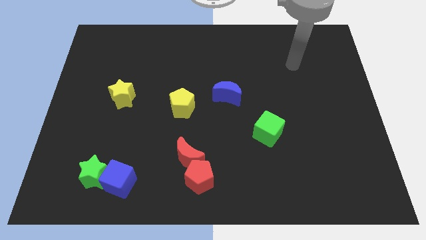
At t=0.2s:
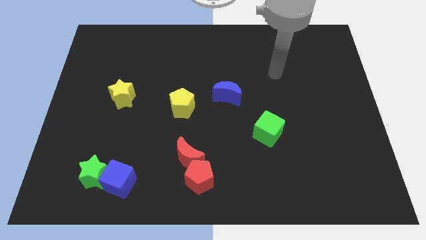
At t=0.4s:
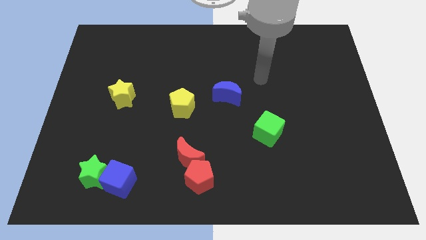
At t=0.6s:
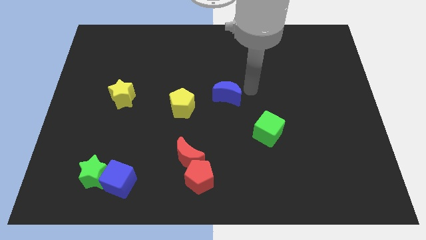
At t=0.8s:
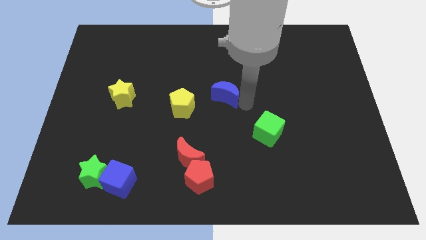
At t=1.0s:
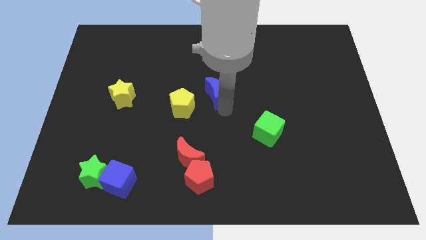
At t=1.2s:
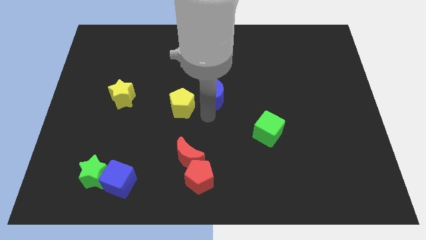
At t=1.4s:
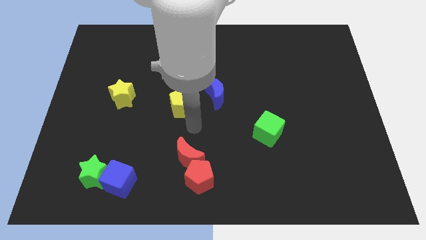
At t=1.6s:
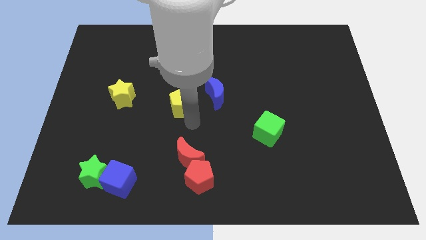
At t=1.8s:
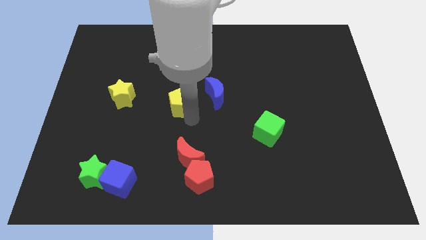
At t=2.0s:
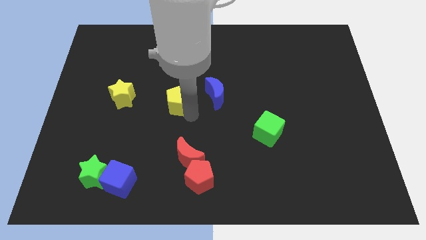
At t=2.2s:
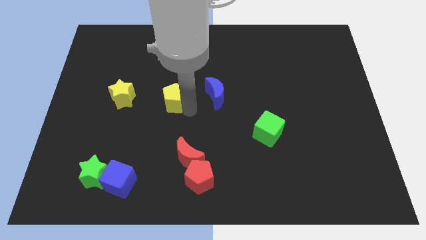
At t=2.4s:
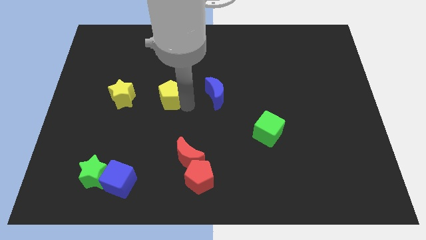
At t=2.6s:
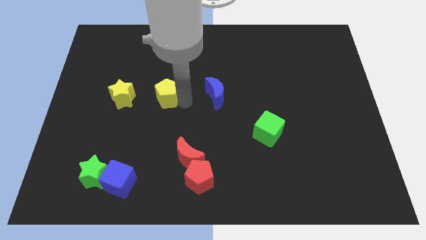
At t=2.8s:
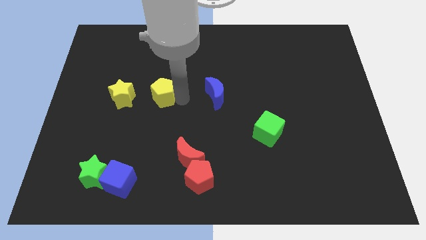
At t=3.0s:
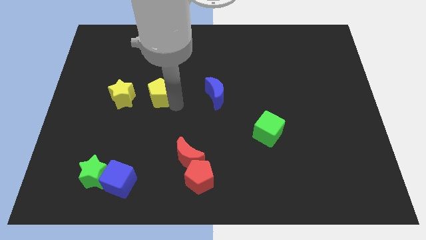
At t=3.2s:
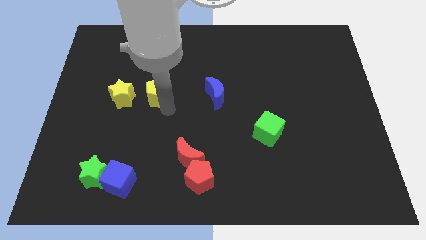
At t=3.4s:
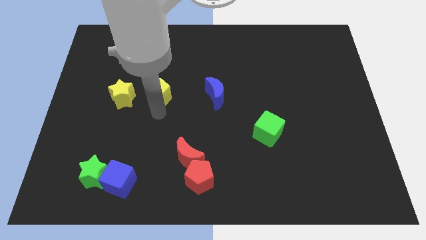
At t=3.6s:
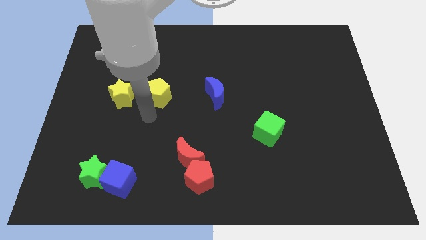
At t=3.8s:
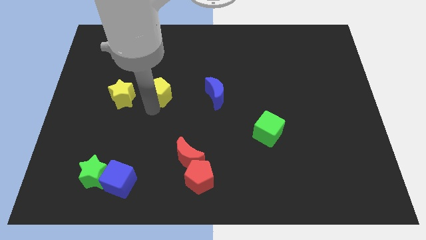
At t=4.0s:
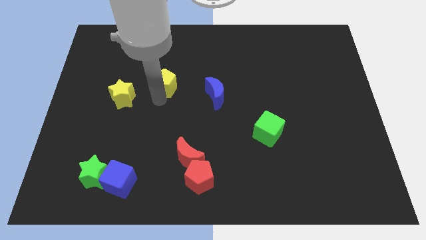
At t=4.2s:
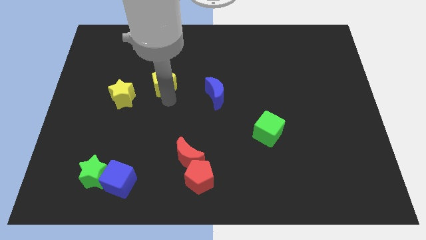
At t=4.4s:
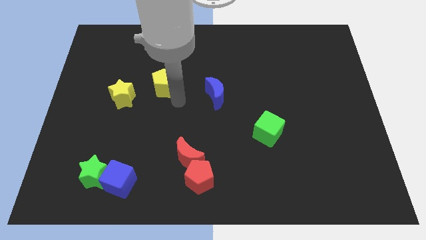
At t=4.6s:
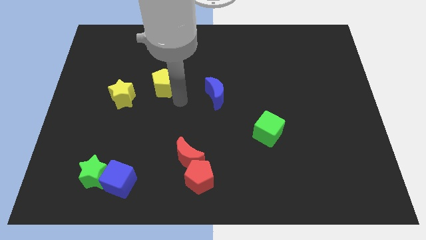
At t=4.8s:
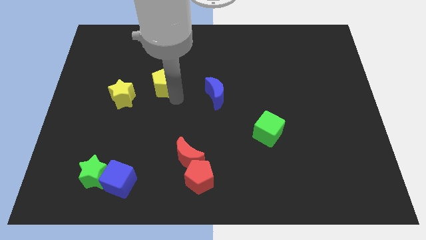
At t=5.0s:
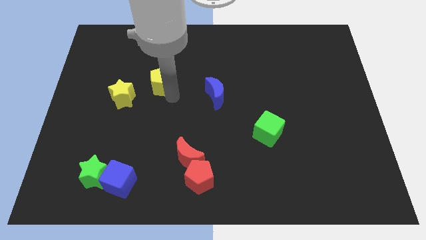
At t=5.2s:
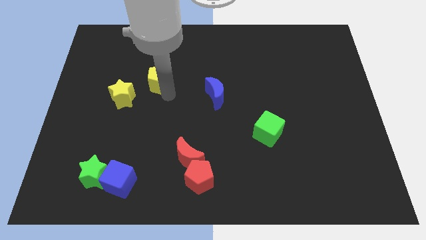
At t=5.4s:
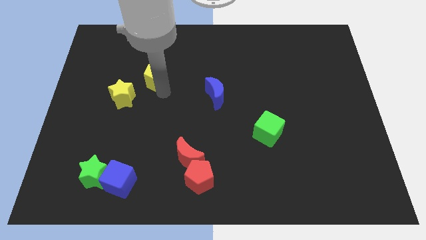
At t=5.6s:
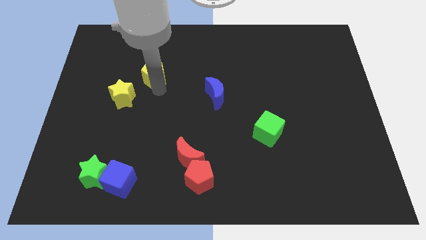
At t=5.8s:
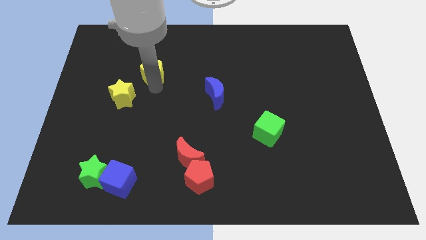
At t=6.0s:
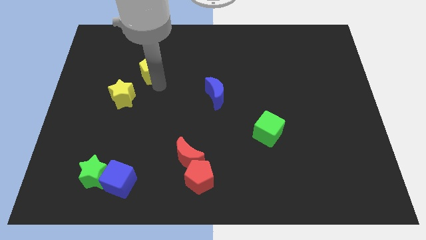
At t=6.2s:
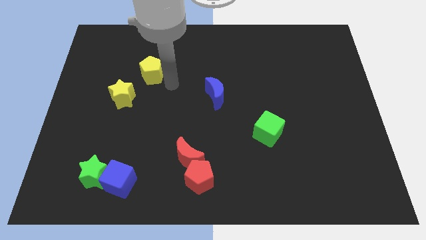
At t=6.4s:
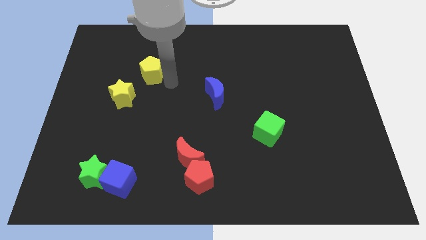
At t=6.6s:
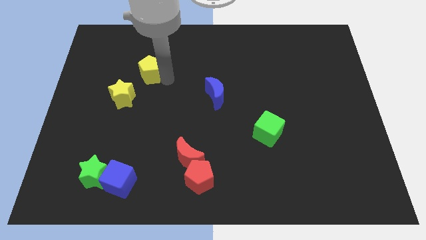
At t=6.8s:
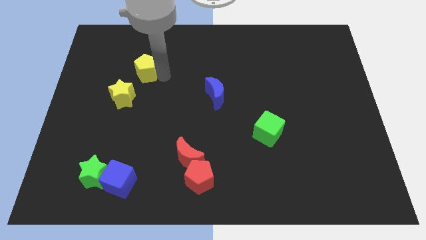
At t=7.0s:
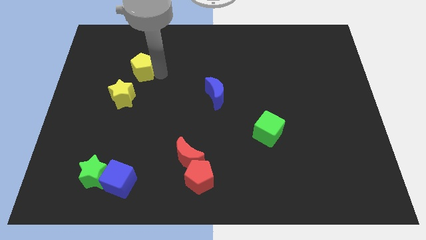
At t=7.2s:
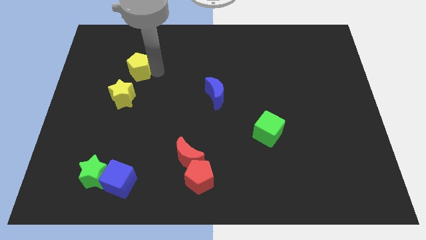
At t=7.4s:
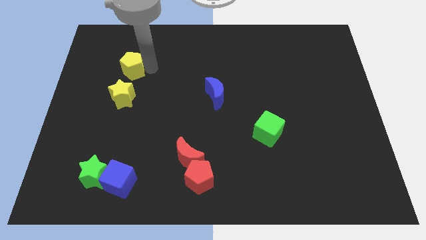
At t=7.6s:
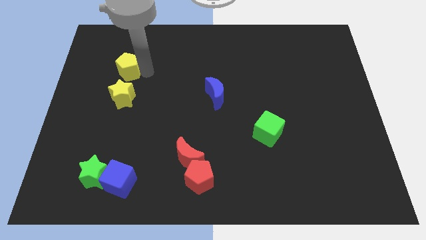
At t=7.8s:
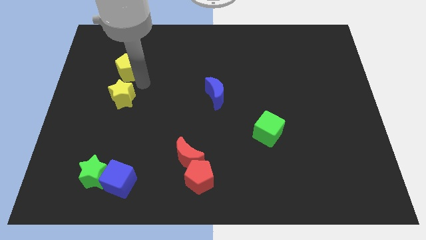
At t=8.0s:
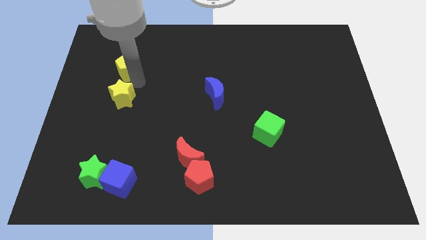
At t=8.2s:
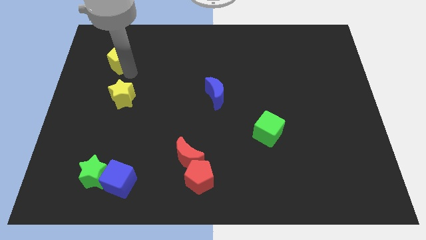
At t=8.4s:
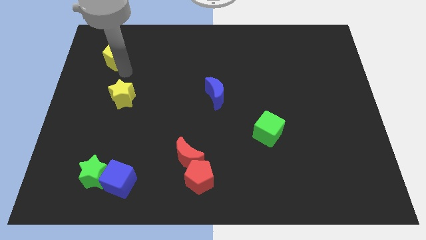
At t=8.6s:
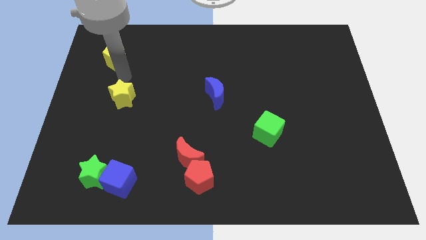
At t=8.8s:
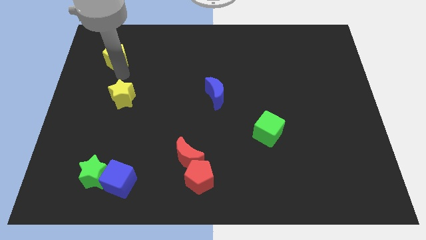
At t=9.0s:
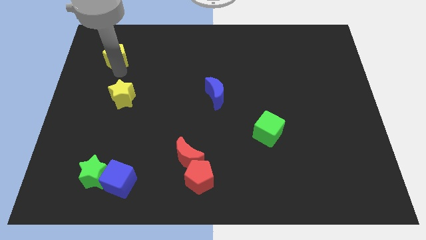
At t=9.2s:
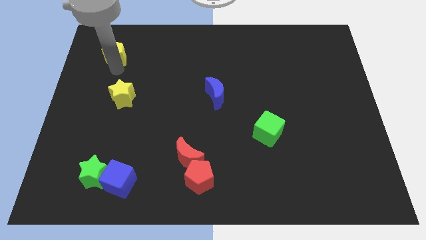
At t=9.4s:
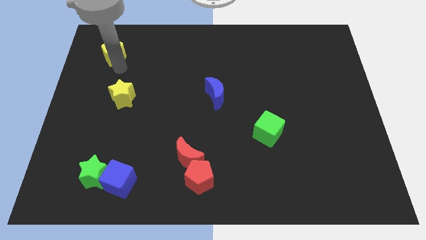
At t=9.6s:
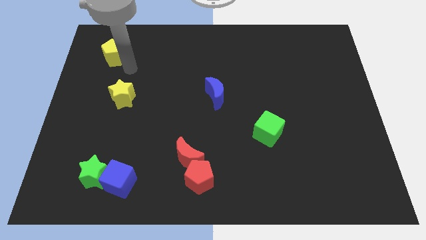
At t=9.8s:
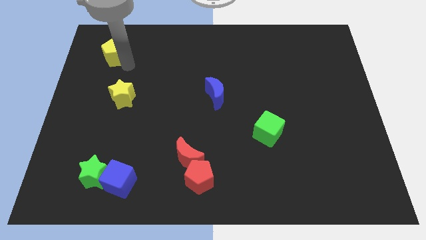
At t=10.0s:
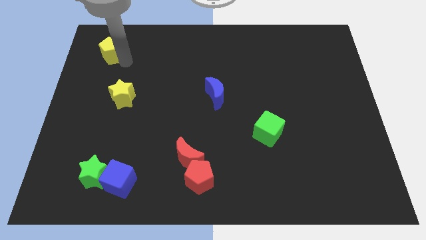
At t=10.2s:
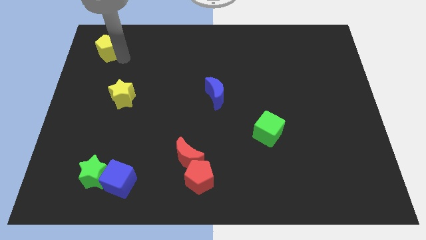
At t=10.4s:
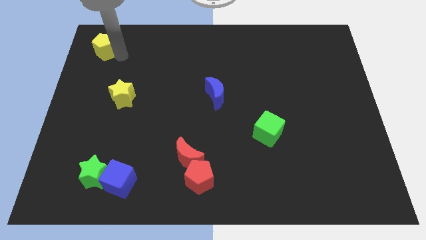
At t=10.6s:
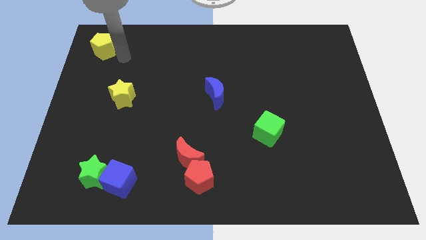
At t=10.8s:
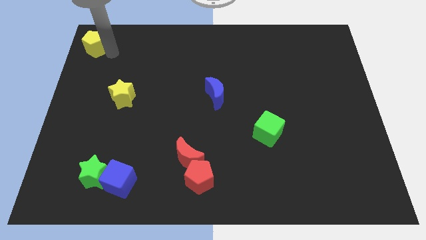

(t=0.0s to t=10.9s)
move the yellow pentagon to the top left

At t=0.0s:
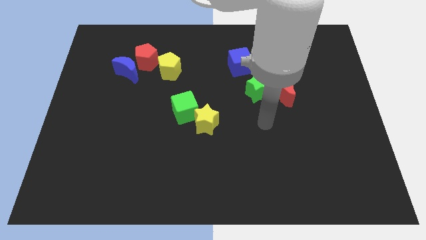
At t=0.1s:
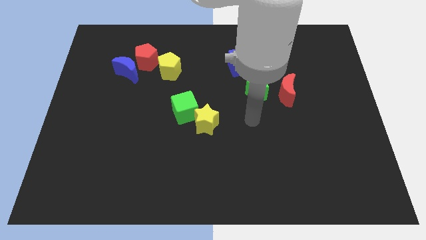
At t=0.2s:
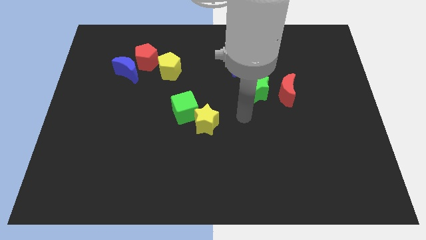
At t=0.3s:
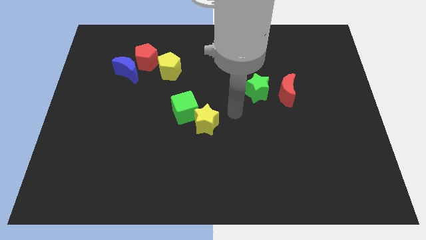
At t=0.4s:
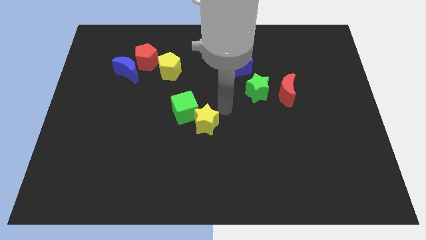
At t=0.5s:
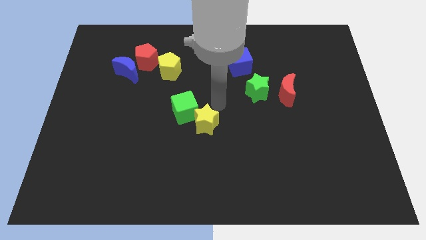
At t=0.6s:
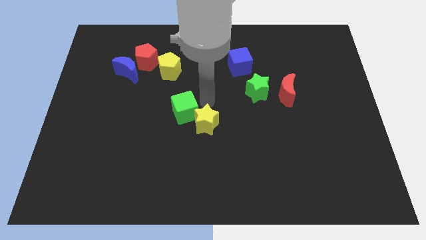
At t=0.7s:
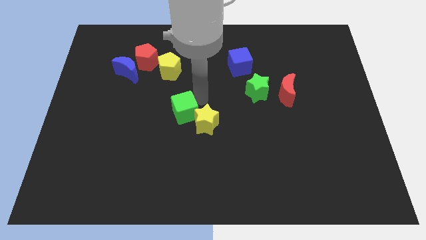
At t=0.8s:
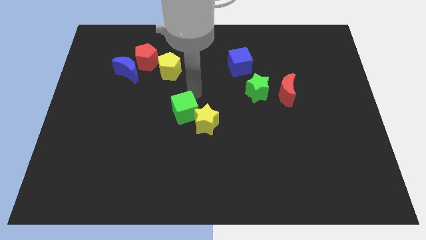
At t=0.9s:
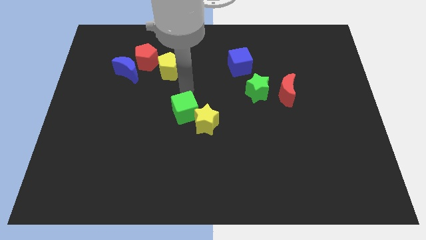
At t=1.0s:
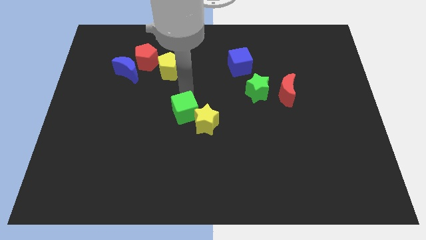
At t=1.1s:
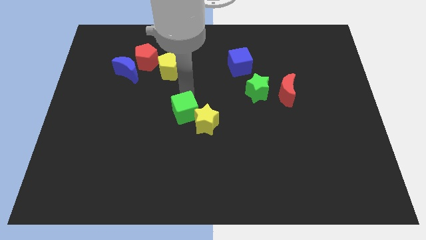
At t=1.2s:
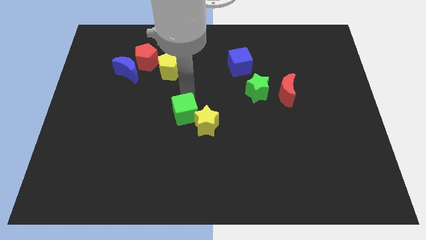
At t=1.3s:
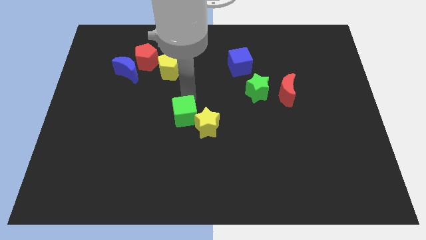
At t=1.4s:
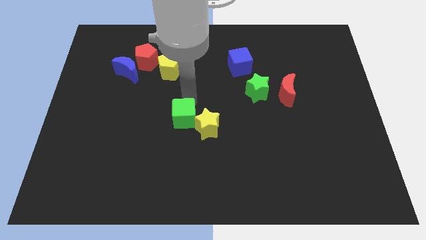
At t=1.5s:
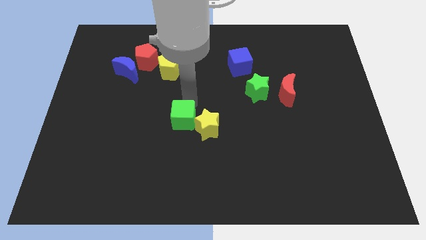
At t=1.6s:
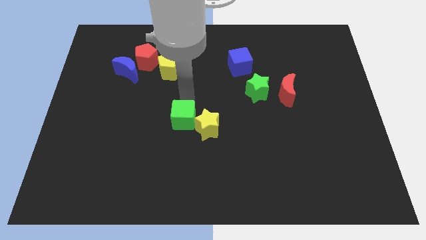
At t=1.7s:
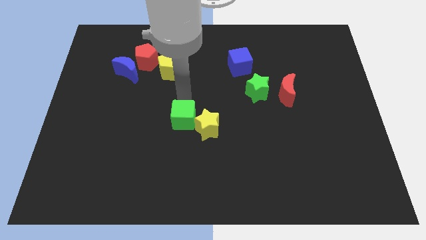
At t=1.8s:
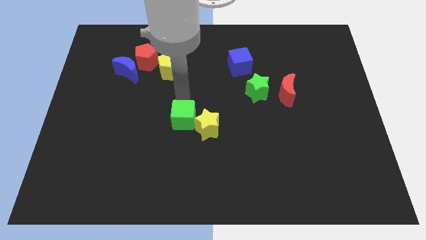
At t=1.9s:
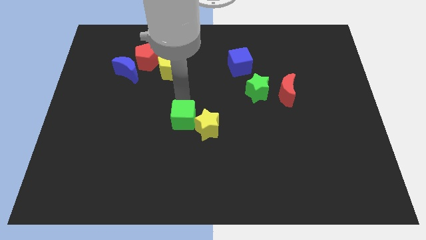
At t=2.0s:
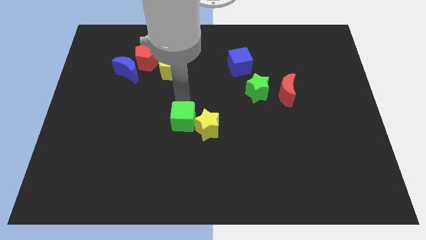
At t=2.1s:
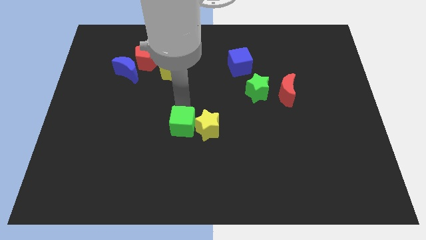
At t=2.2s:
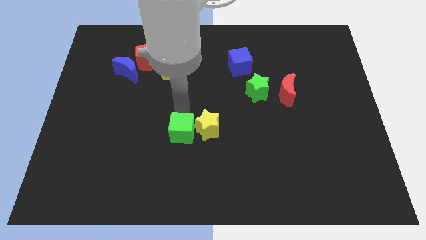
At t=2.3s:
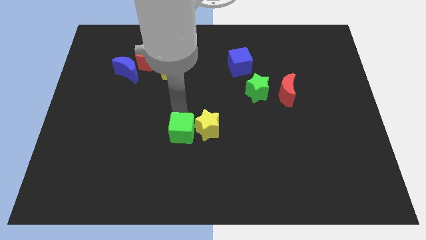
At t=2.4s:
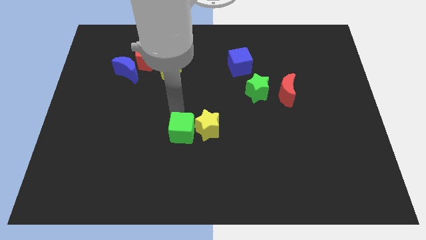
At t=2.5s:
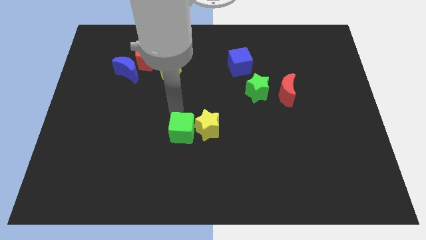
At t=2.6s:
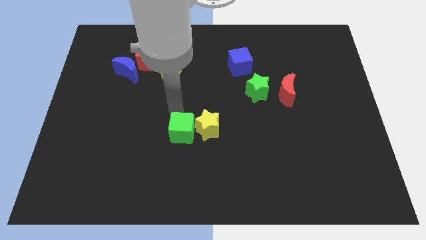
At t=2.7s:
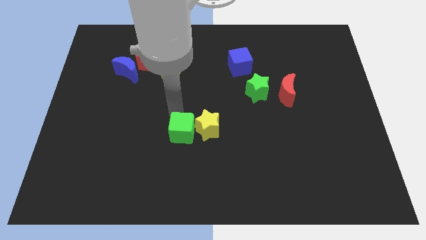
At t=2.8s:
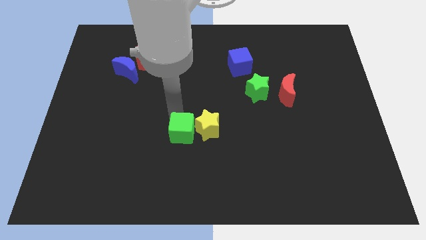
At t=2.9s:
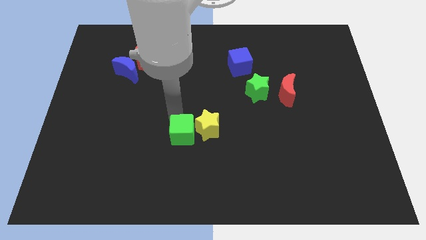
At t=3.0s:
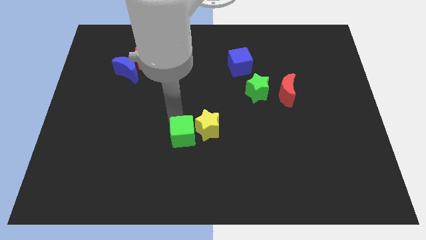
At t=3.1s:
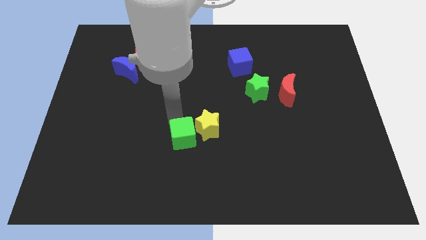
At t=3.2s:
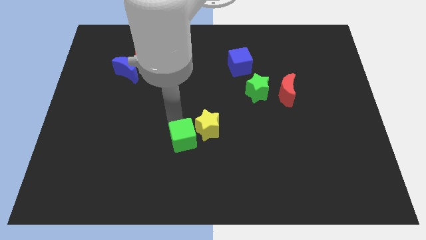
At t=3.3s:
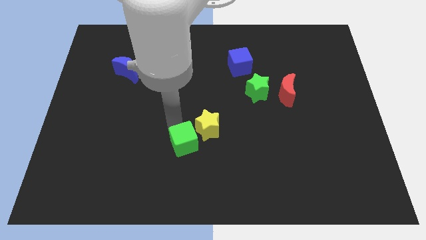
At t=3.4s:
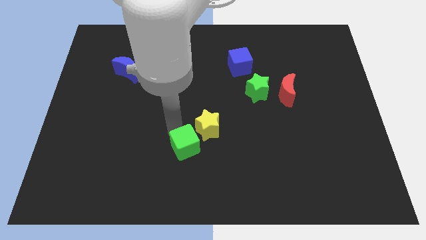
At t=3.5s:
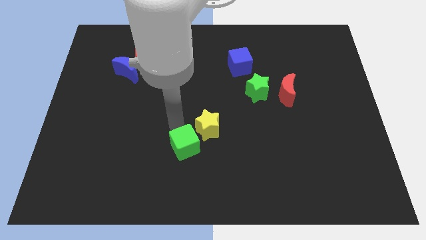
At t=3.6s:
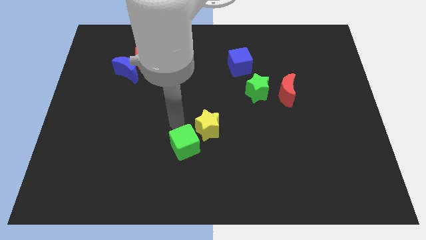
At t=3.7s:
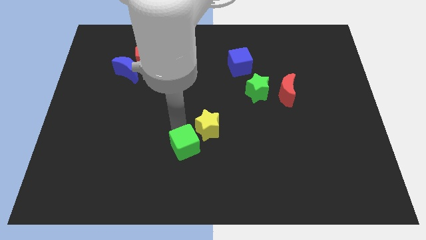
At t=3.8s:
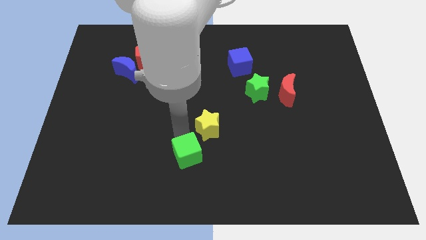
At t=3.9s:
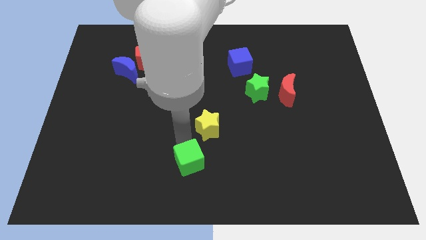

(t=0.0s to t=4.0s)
slide the green cube to the bottom side
